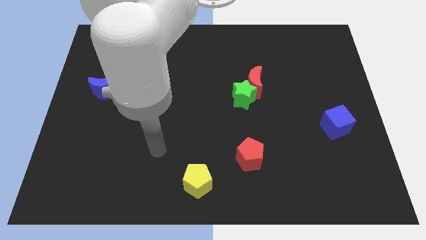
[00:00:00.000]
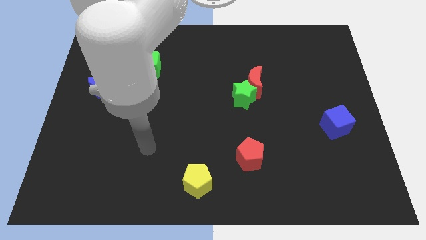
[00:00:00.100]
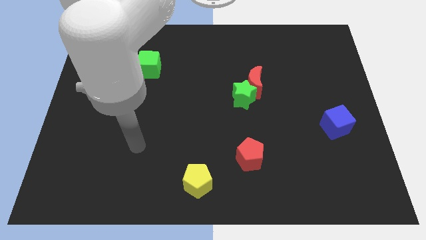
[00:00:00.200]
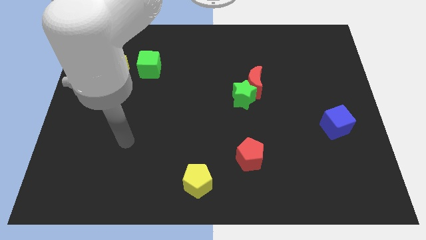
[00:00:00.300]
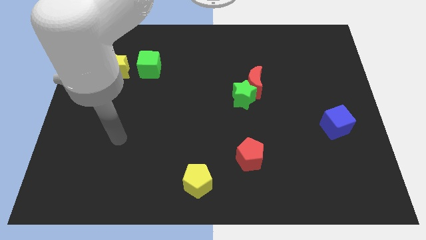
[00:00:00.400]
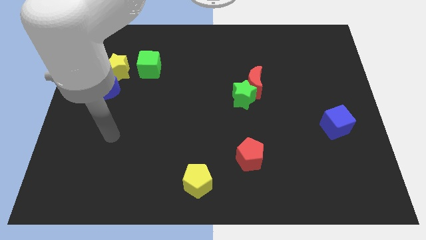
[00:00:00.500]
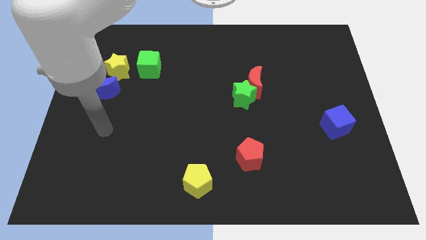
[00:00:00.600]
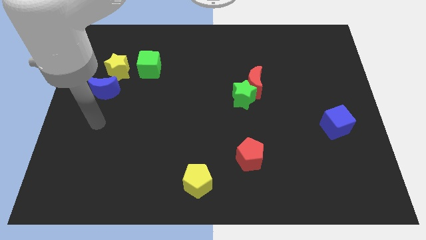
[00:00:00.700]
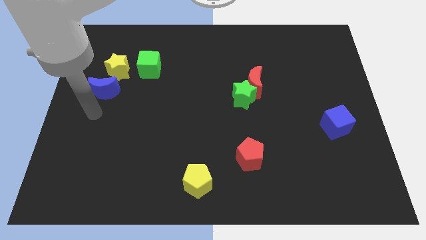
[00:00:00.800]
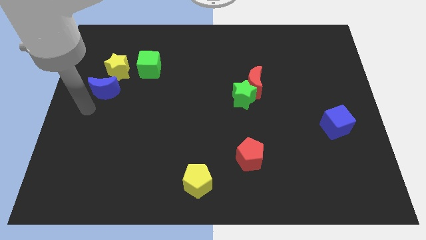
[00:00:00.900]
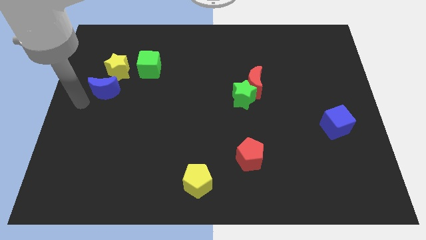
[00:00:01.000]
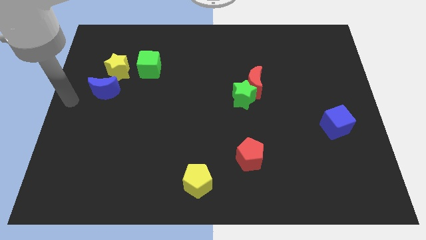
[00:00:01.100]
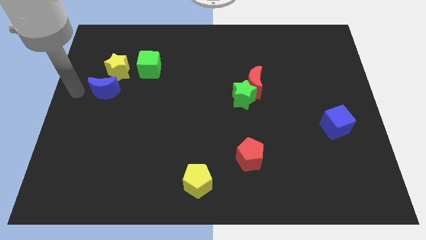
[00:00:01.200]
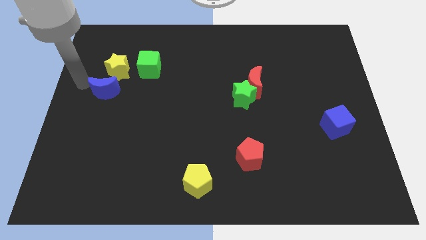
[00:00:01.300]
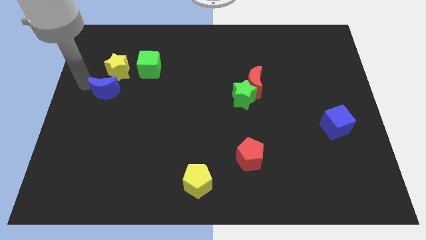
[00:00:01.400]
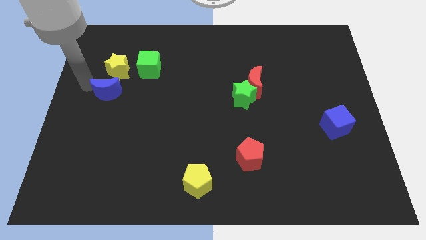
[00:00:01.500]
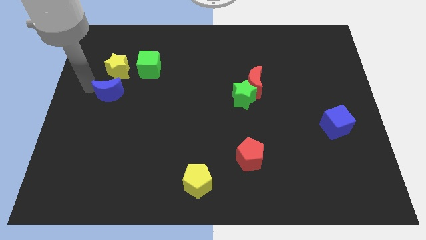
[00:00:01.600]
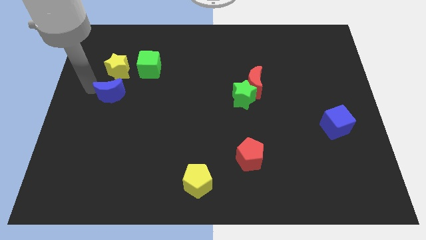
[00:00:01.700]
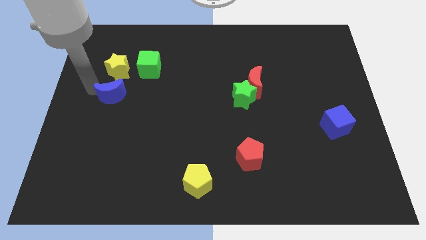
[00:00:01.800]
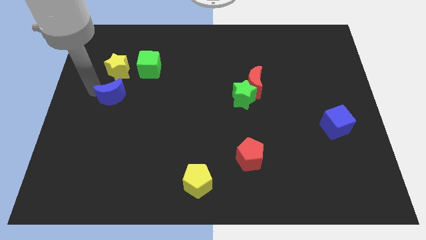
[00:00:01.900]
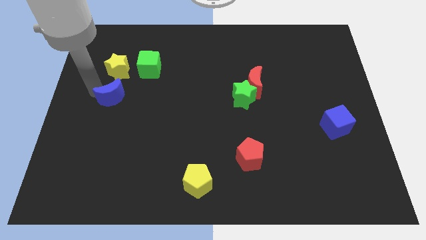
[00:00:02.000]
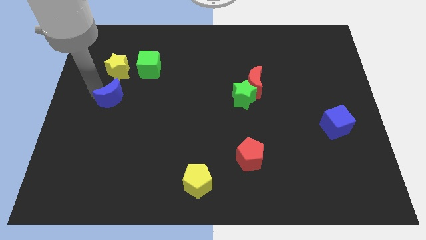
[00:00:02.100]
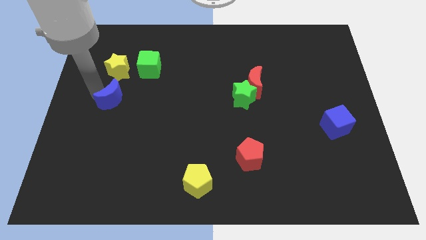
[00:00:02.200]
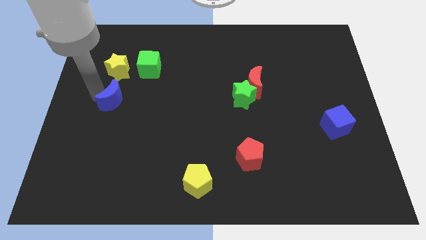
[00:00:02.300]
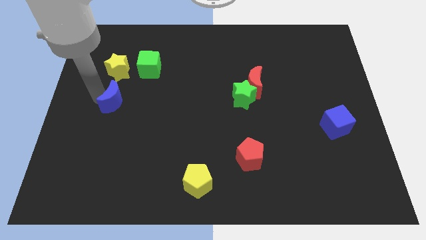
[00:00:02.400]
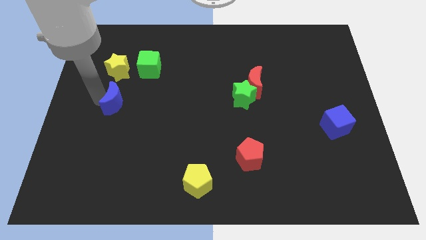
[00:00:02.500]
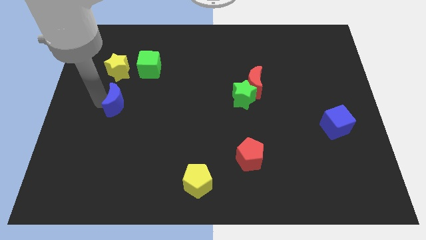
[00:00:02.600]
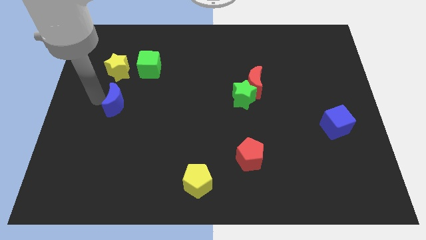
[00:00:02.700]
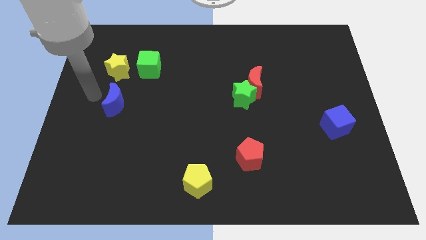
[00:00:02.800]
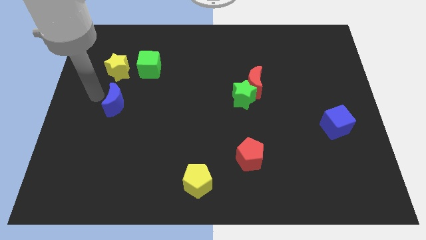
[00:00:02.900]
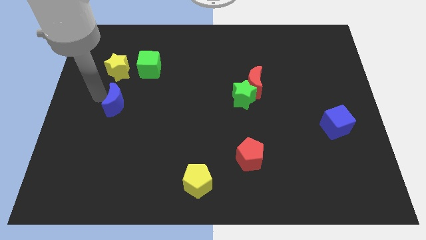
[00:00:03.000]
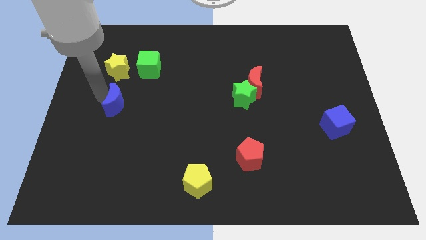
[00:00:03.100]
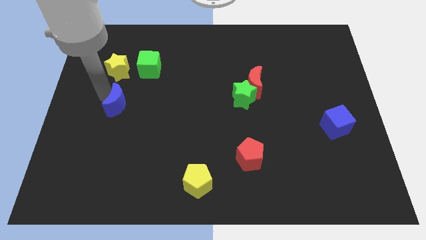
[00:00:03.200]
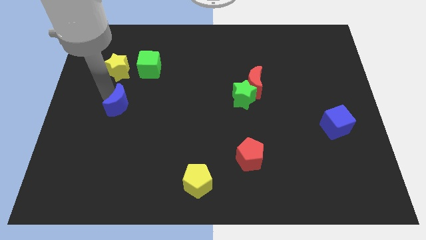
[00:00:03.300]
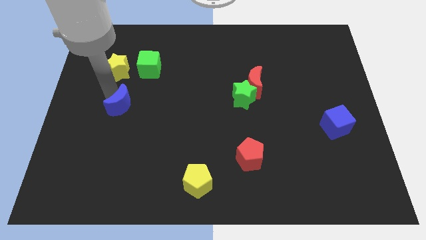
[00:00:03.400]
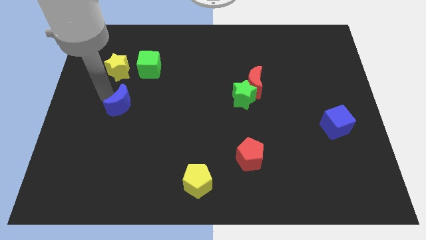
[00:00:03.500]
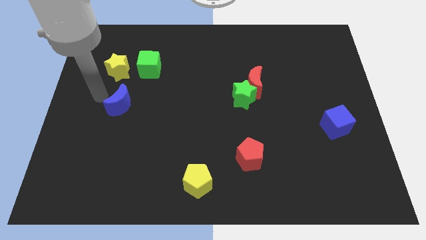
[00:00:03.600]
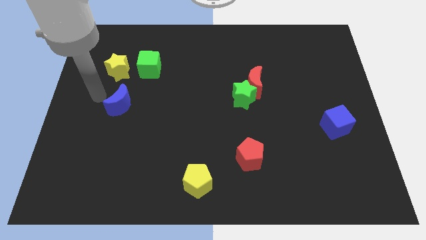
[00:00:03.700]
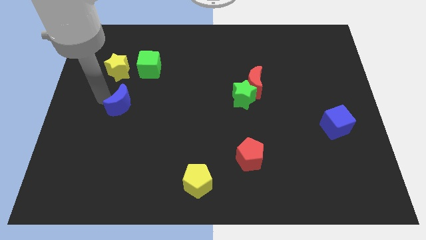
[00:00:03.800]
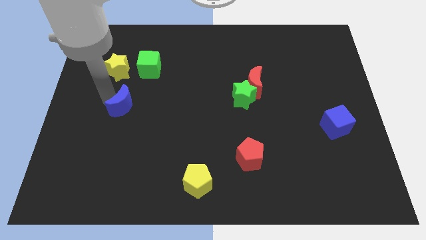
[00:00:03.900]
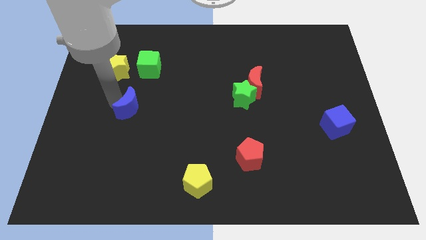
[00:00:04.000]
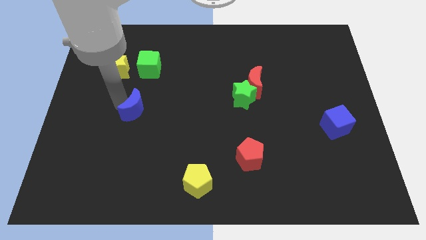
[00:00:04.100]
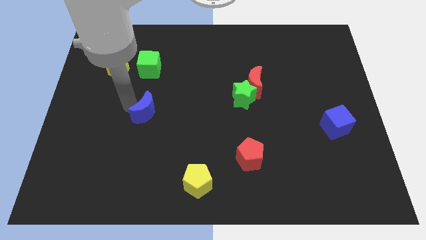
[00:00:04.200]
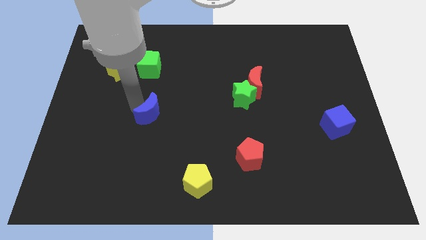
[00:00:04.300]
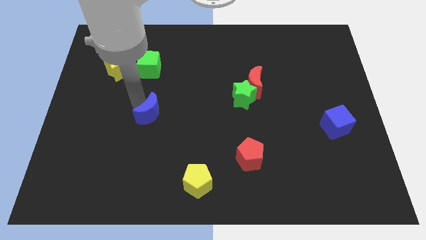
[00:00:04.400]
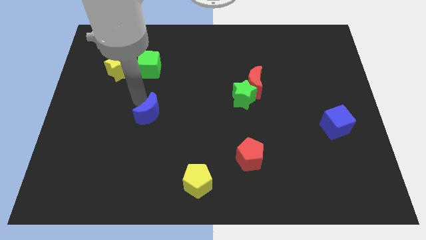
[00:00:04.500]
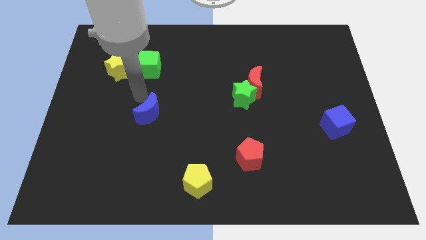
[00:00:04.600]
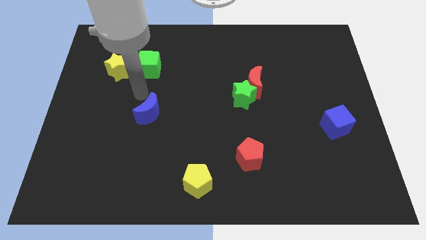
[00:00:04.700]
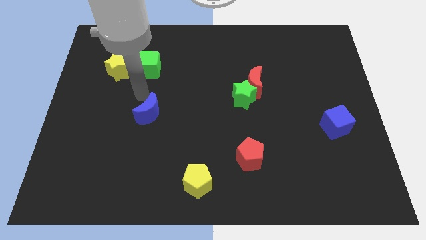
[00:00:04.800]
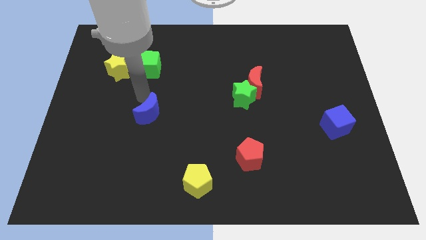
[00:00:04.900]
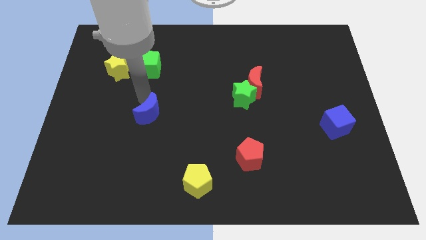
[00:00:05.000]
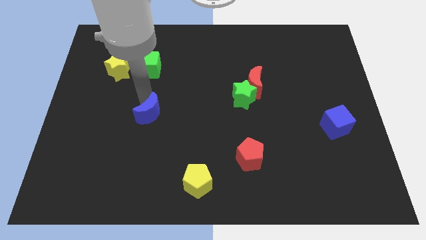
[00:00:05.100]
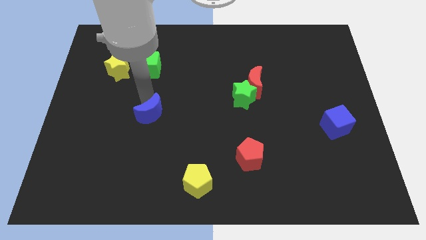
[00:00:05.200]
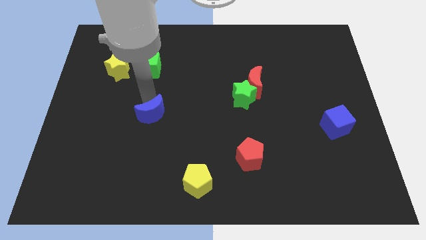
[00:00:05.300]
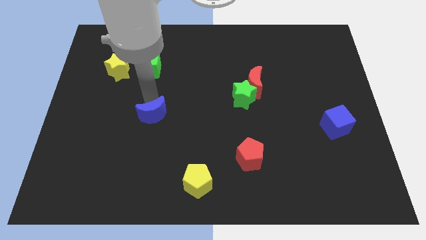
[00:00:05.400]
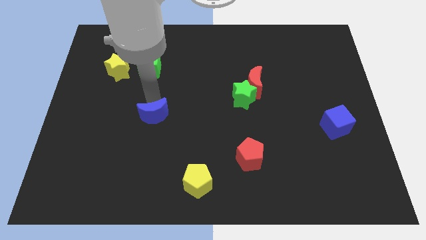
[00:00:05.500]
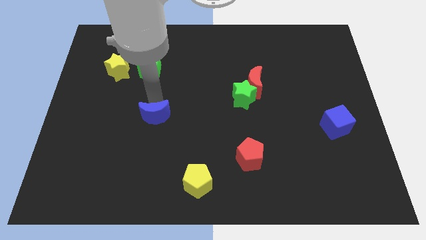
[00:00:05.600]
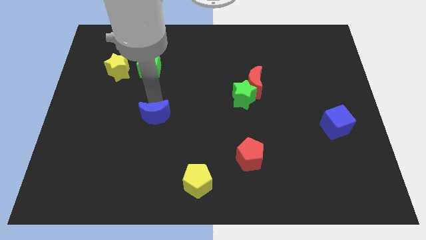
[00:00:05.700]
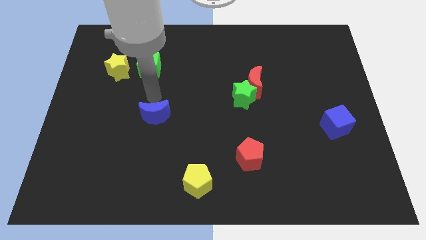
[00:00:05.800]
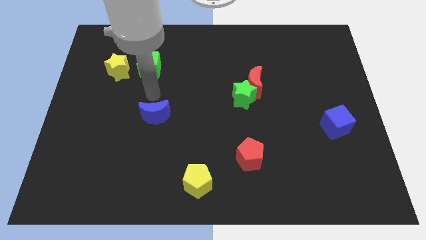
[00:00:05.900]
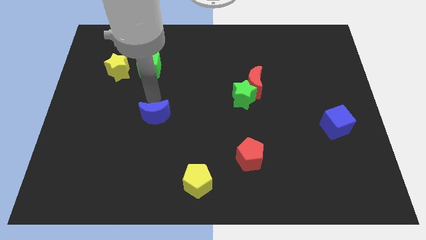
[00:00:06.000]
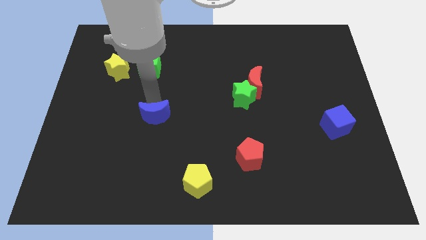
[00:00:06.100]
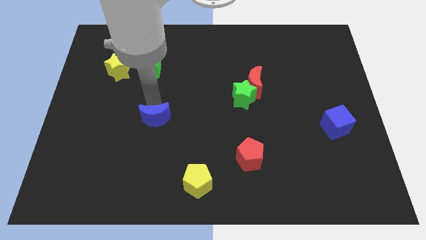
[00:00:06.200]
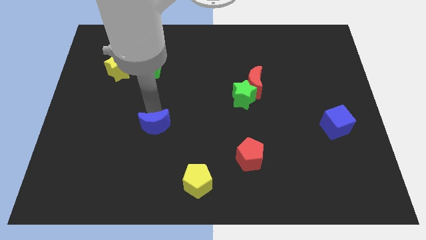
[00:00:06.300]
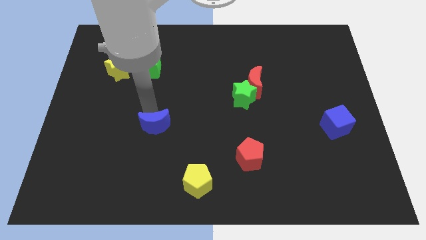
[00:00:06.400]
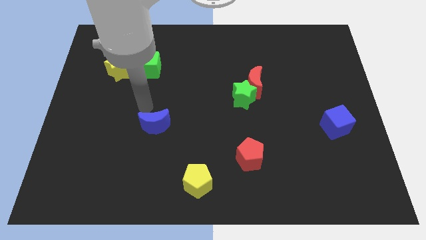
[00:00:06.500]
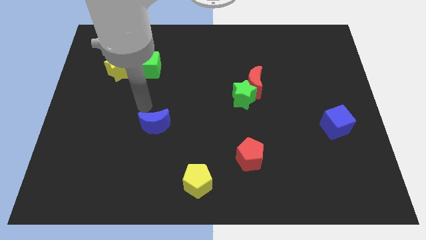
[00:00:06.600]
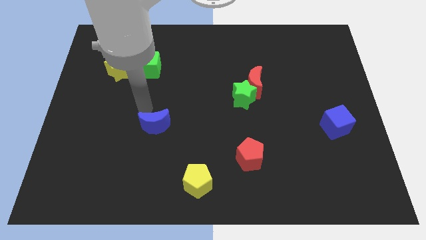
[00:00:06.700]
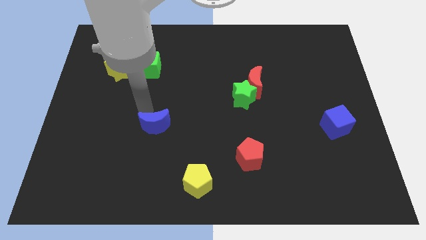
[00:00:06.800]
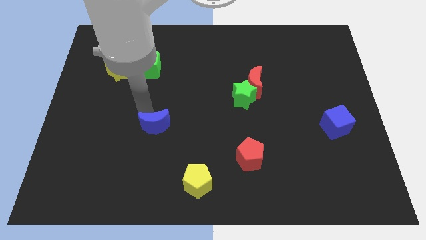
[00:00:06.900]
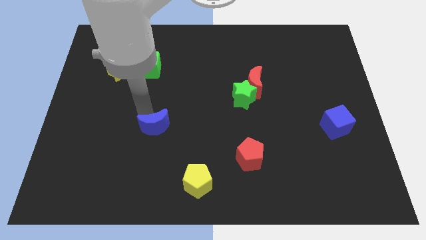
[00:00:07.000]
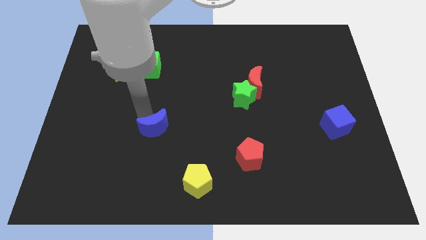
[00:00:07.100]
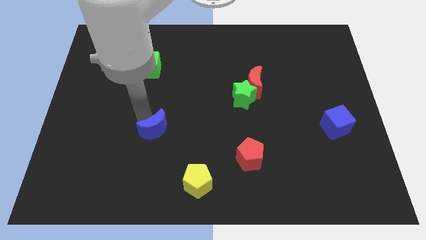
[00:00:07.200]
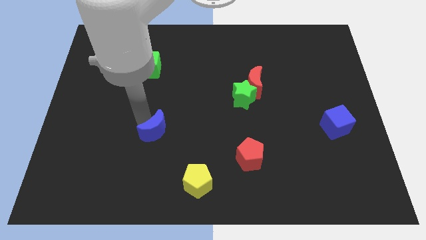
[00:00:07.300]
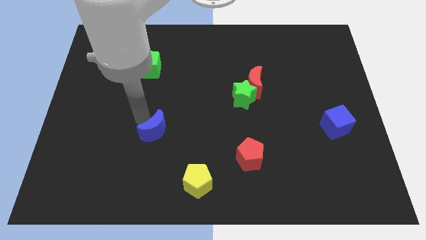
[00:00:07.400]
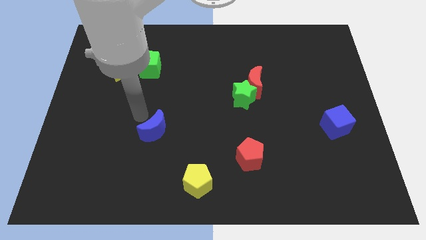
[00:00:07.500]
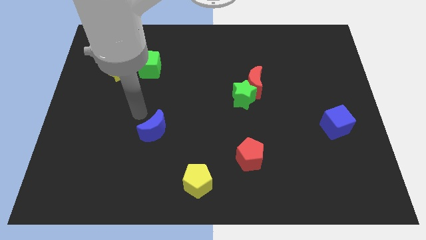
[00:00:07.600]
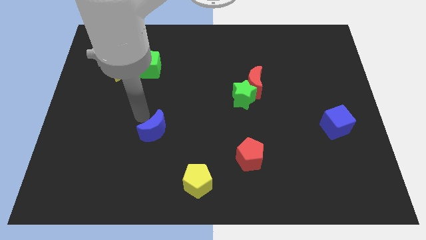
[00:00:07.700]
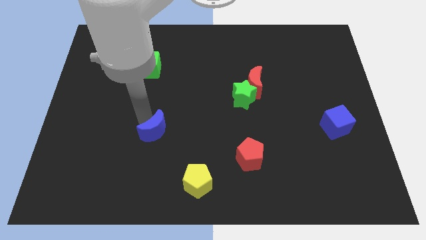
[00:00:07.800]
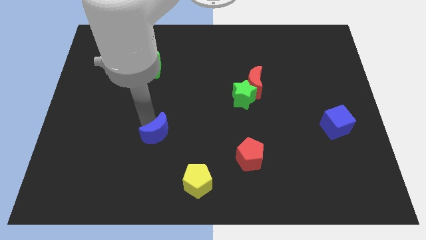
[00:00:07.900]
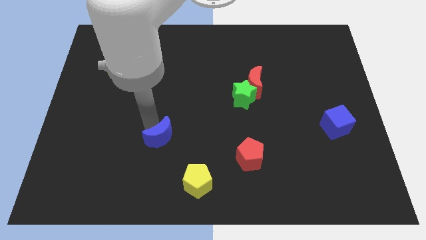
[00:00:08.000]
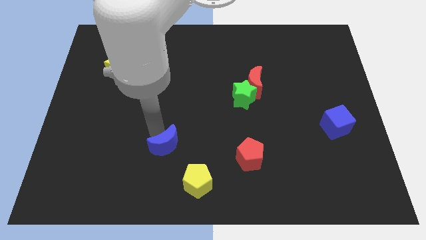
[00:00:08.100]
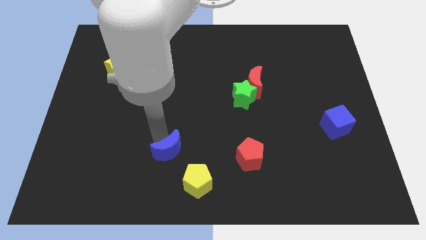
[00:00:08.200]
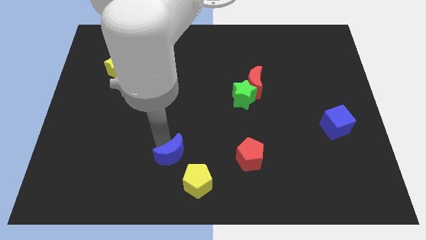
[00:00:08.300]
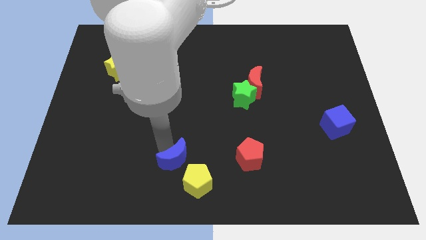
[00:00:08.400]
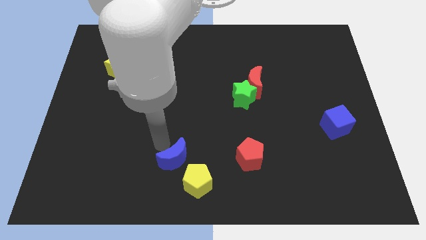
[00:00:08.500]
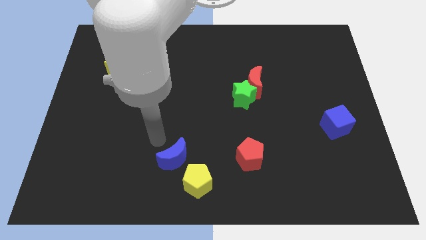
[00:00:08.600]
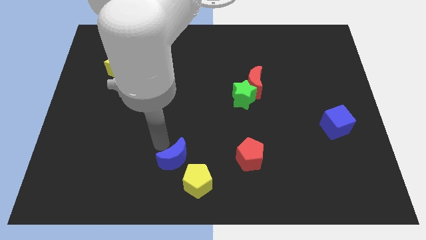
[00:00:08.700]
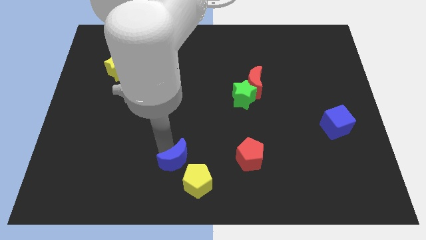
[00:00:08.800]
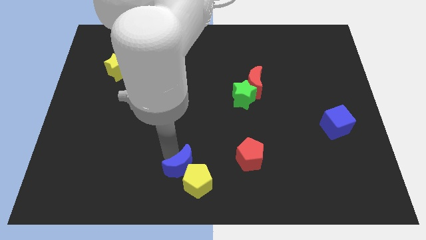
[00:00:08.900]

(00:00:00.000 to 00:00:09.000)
push the blue moon towards the yellow pentagon
